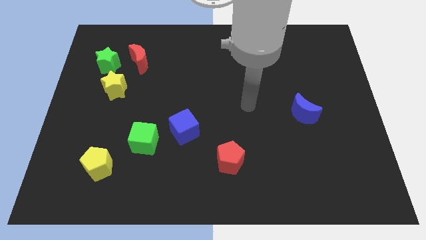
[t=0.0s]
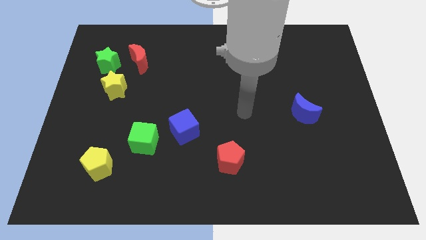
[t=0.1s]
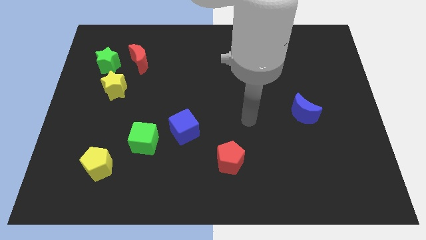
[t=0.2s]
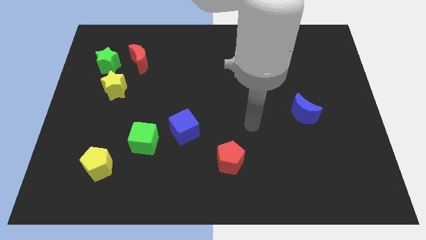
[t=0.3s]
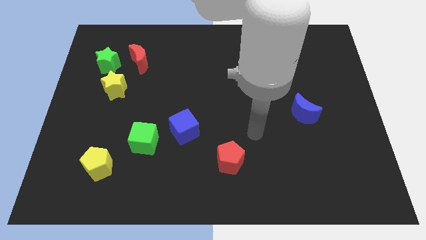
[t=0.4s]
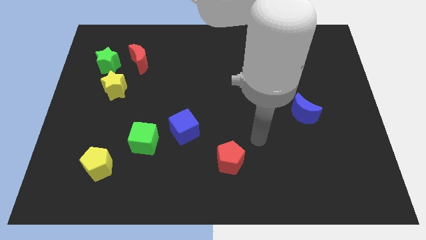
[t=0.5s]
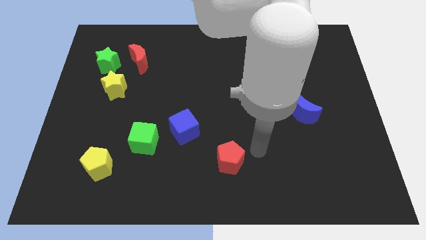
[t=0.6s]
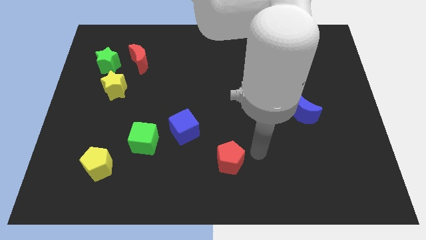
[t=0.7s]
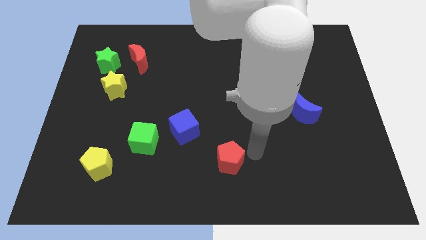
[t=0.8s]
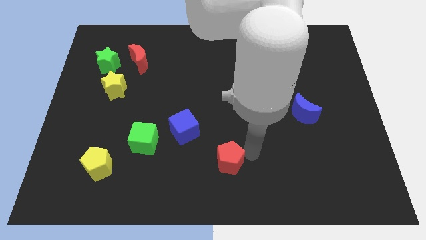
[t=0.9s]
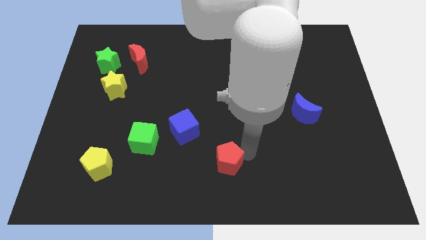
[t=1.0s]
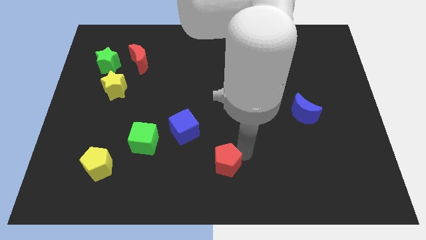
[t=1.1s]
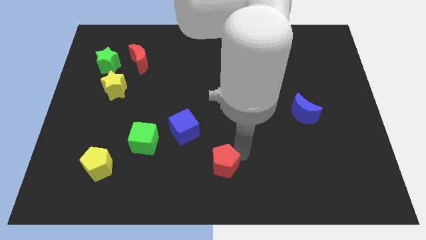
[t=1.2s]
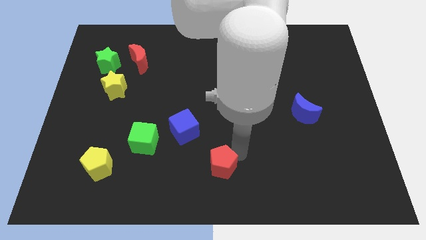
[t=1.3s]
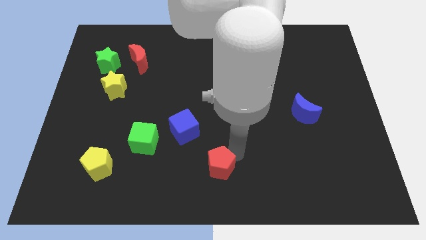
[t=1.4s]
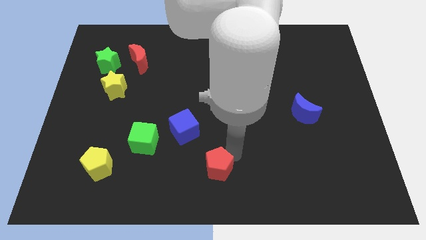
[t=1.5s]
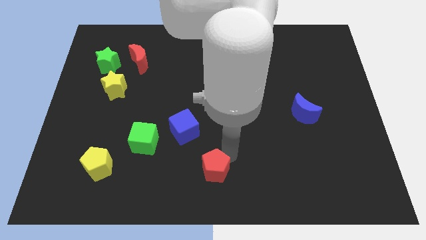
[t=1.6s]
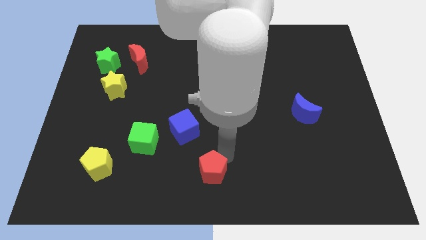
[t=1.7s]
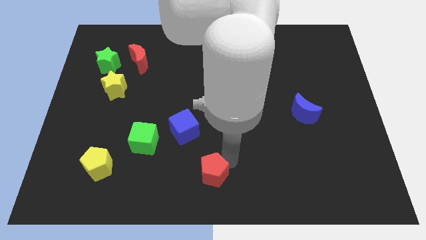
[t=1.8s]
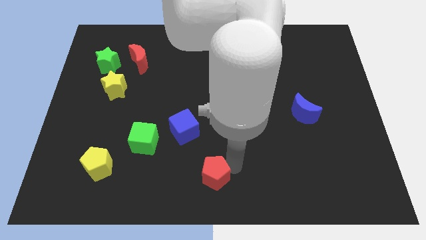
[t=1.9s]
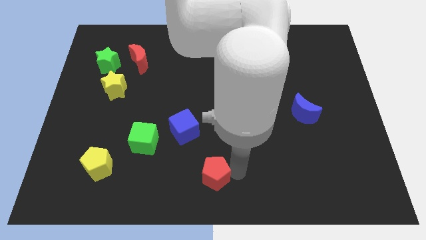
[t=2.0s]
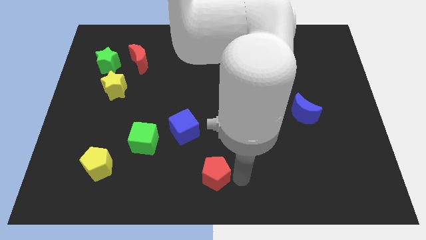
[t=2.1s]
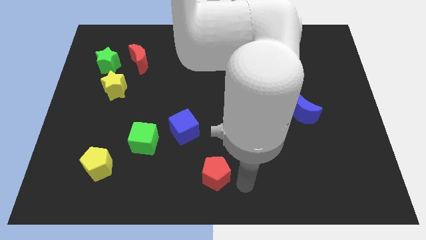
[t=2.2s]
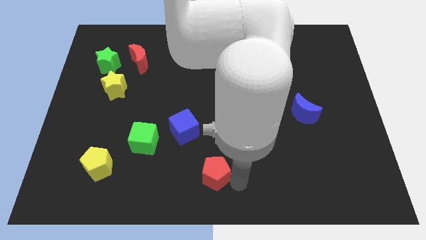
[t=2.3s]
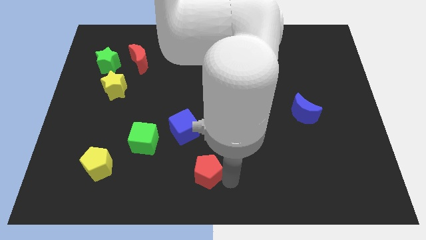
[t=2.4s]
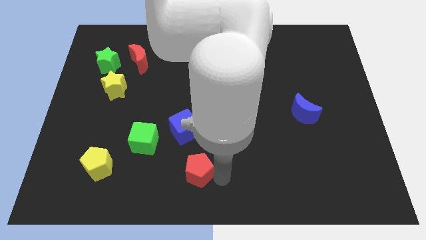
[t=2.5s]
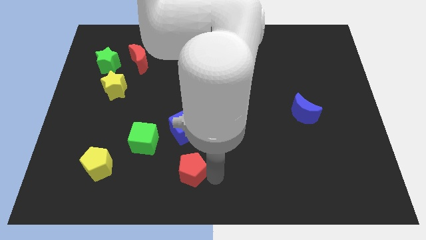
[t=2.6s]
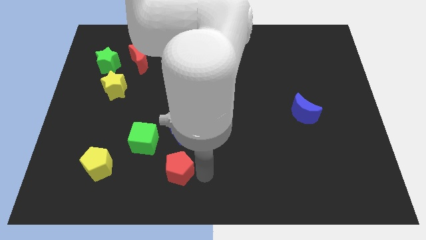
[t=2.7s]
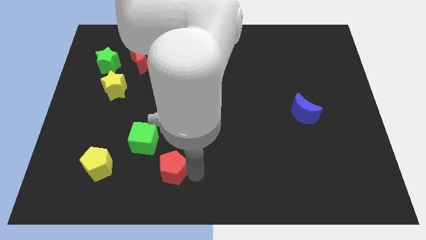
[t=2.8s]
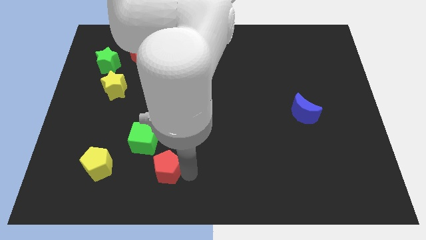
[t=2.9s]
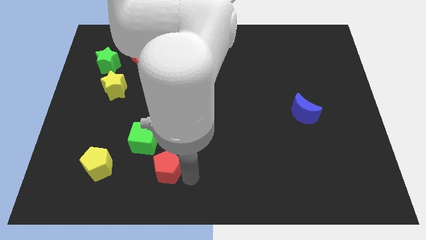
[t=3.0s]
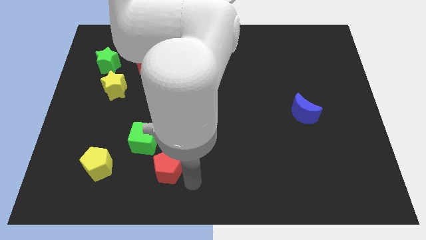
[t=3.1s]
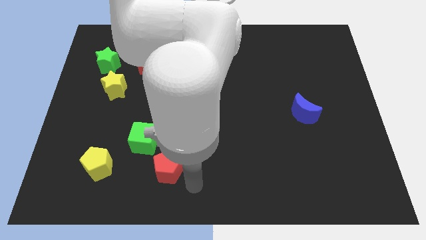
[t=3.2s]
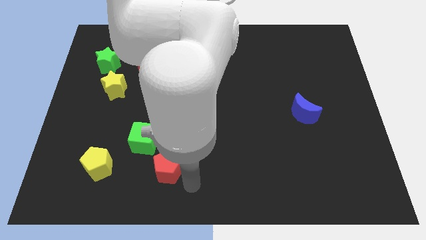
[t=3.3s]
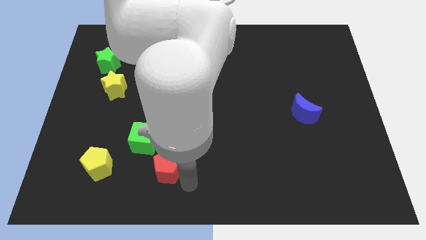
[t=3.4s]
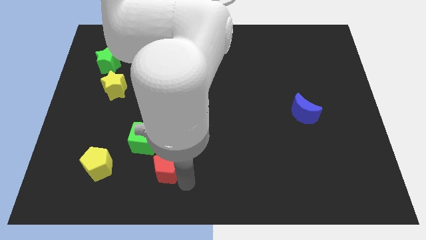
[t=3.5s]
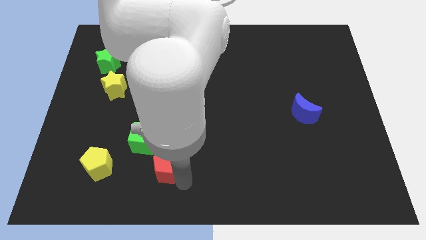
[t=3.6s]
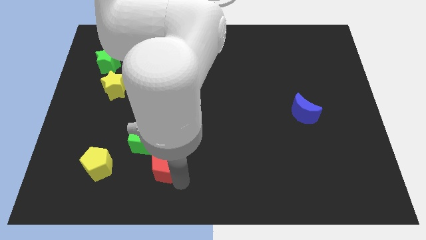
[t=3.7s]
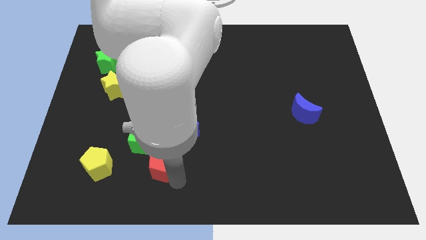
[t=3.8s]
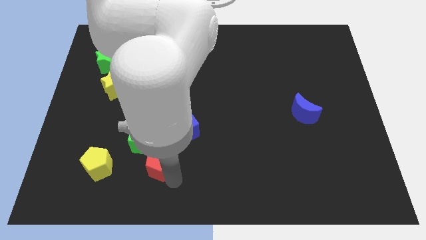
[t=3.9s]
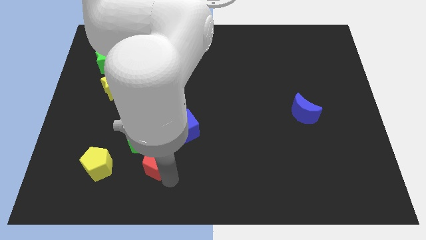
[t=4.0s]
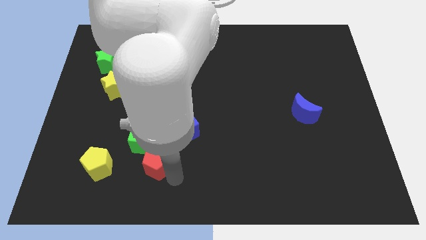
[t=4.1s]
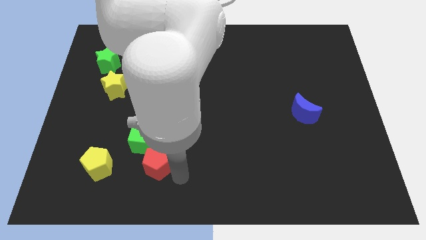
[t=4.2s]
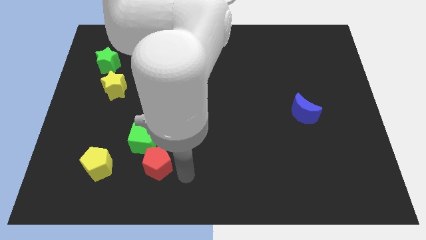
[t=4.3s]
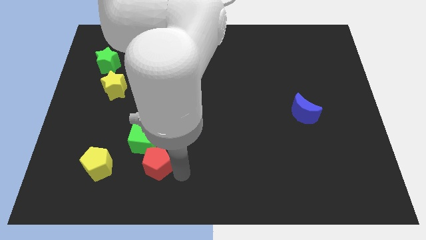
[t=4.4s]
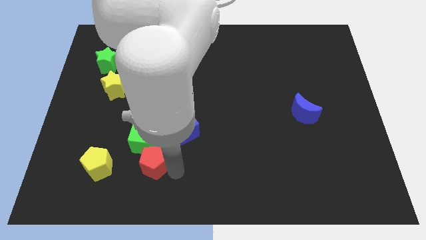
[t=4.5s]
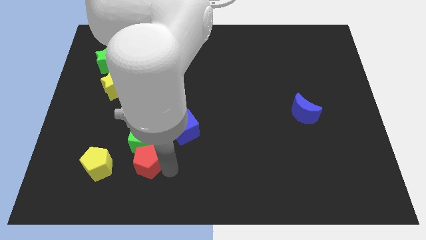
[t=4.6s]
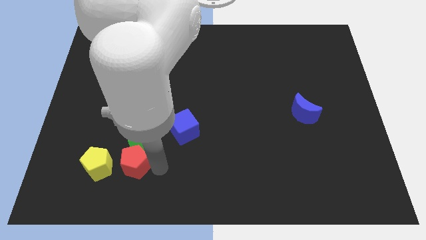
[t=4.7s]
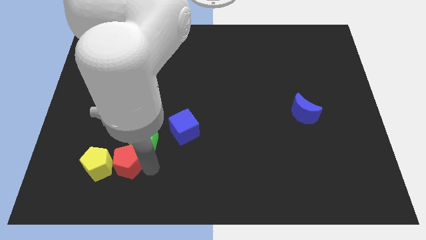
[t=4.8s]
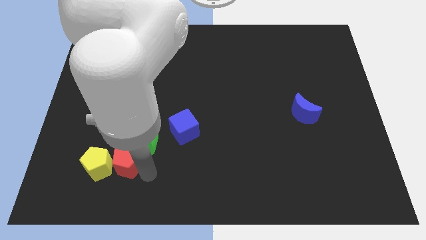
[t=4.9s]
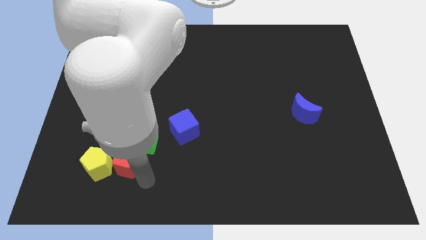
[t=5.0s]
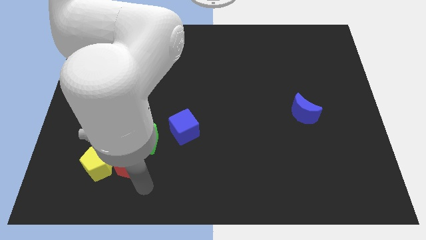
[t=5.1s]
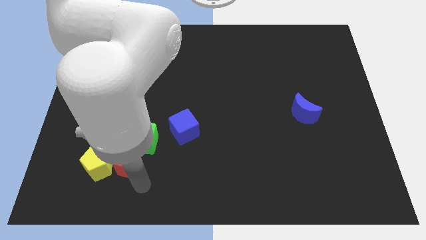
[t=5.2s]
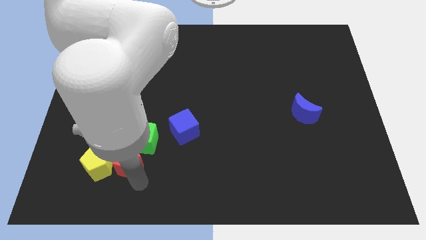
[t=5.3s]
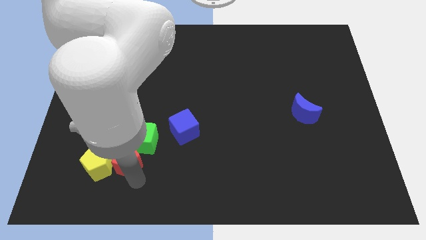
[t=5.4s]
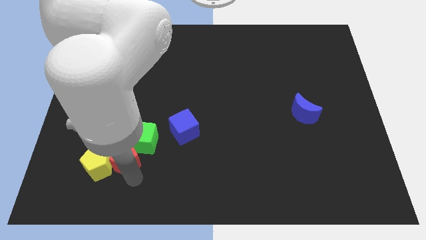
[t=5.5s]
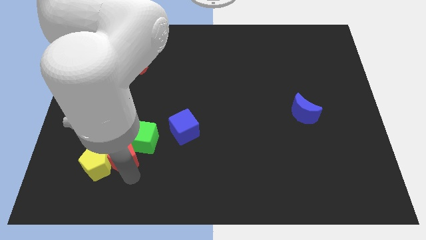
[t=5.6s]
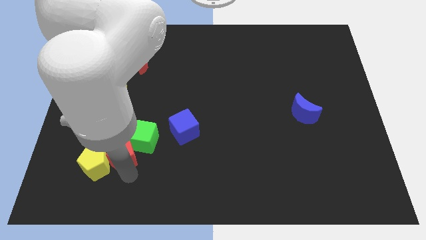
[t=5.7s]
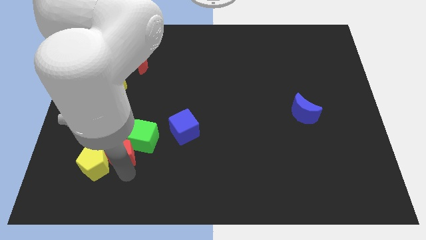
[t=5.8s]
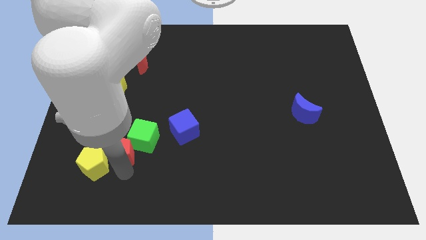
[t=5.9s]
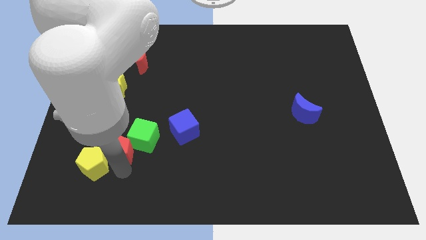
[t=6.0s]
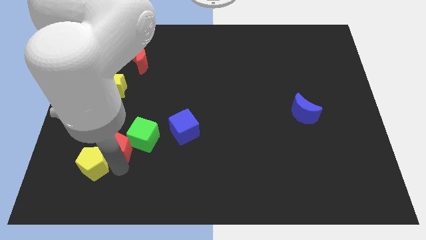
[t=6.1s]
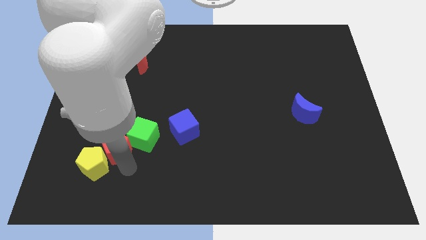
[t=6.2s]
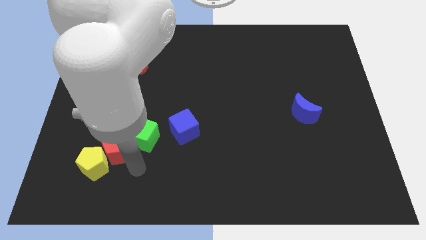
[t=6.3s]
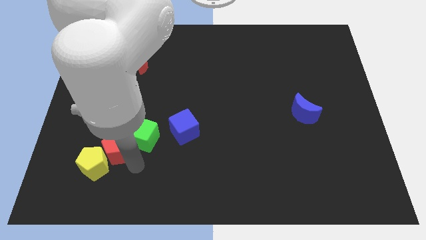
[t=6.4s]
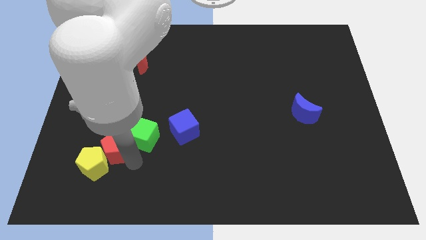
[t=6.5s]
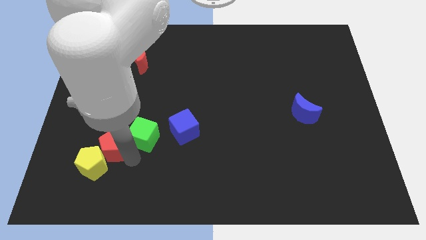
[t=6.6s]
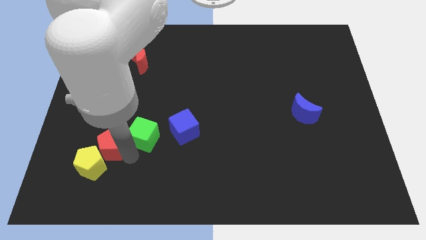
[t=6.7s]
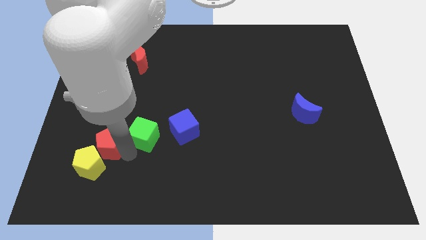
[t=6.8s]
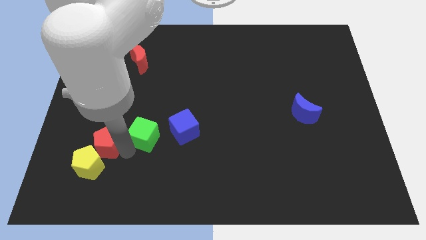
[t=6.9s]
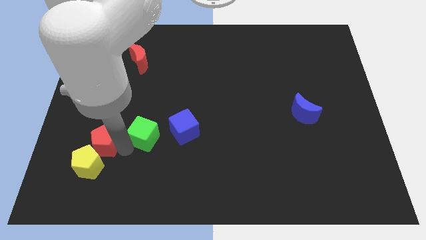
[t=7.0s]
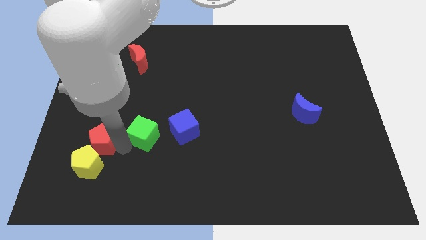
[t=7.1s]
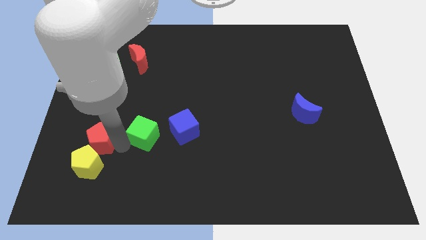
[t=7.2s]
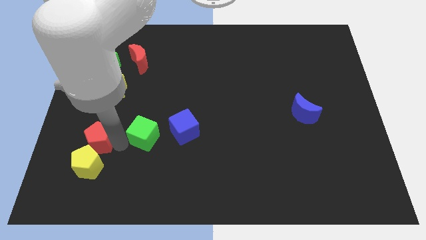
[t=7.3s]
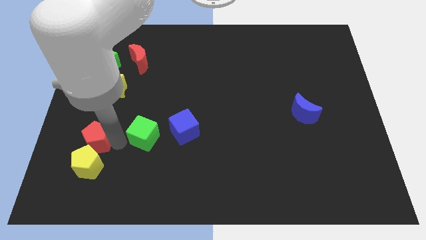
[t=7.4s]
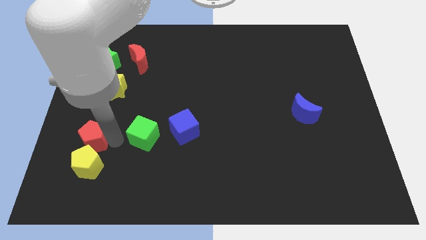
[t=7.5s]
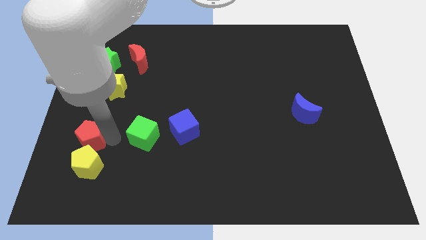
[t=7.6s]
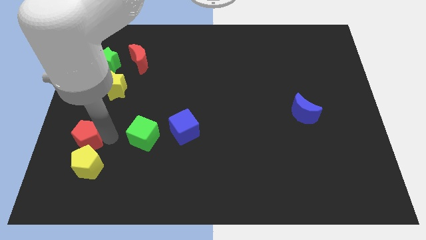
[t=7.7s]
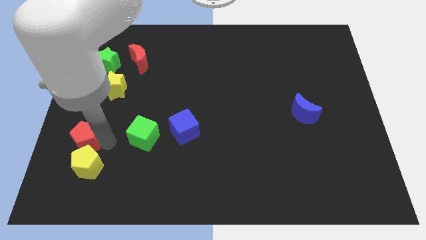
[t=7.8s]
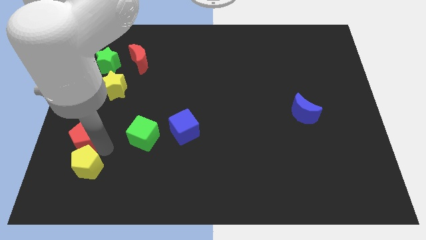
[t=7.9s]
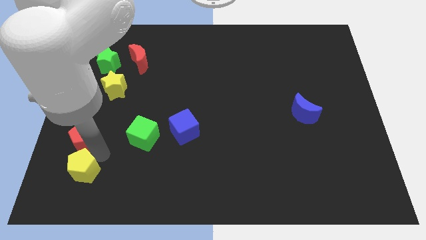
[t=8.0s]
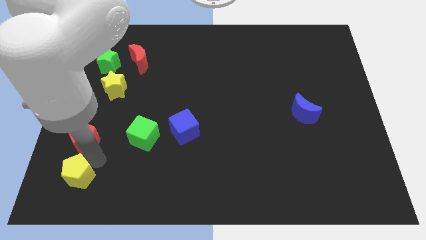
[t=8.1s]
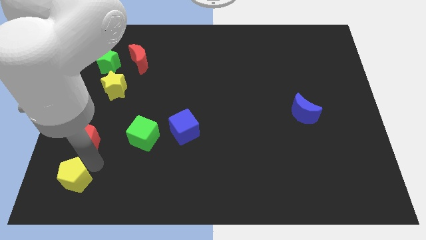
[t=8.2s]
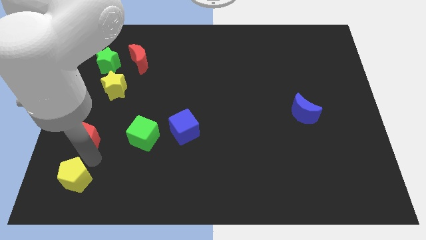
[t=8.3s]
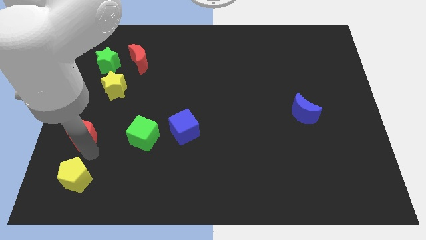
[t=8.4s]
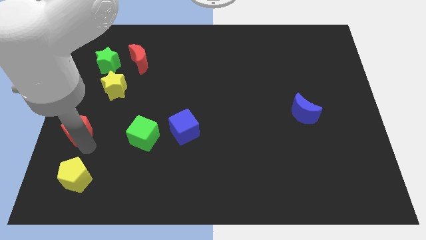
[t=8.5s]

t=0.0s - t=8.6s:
push the red pentagon to the center left

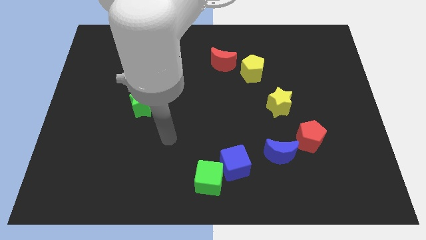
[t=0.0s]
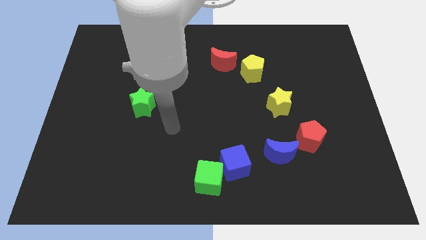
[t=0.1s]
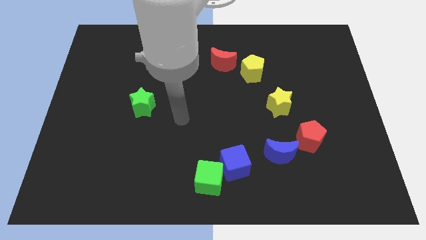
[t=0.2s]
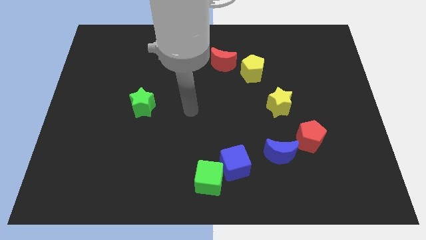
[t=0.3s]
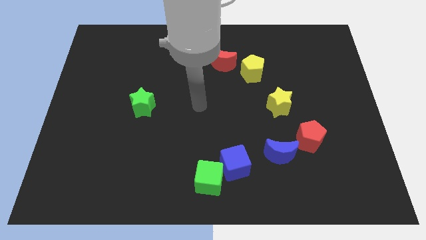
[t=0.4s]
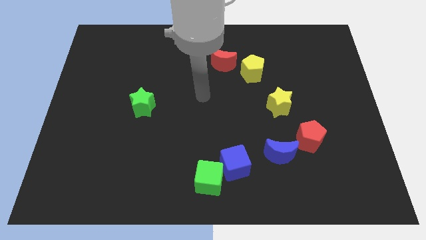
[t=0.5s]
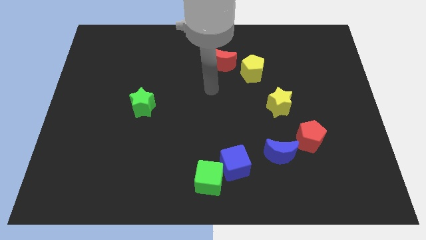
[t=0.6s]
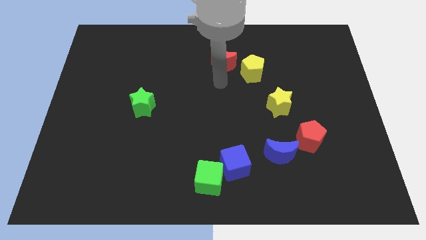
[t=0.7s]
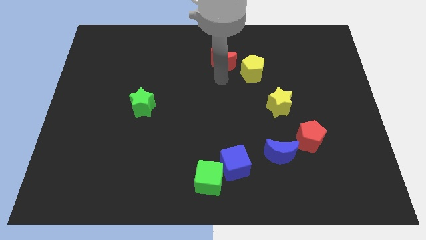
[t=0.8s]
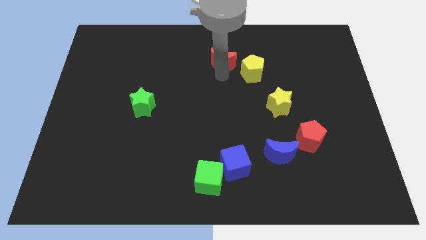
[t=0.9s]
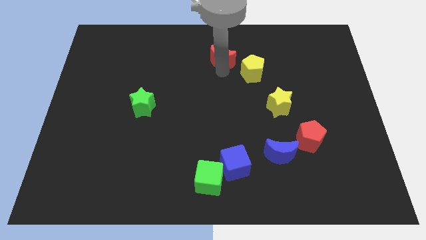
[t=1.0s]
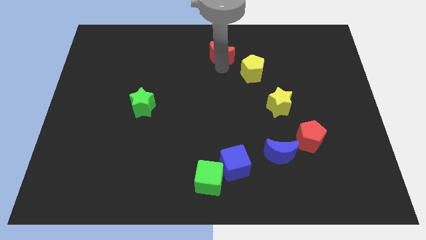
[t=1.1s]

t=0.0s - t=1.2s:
put the red moon to the top
